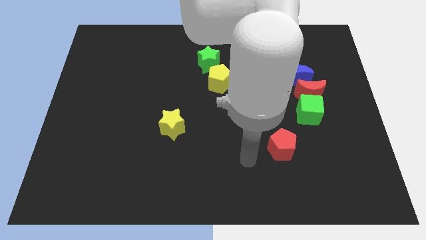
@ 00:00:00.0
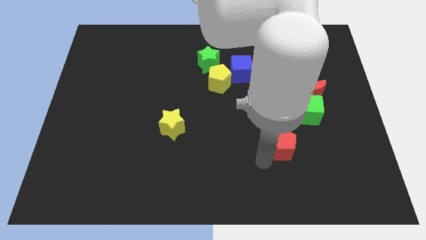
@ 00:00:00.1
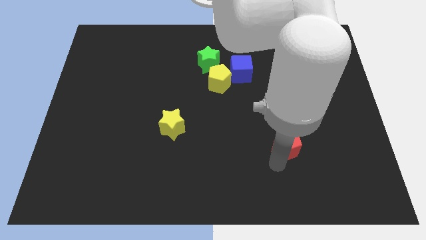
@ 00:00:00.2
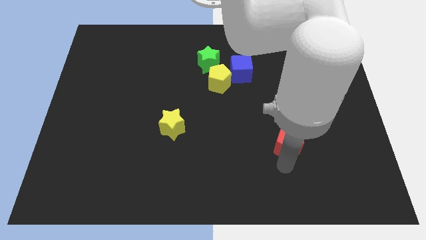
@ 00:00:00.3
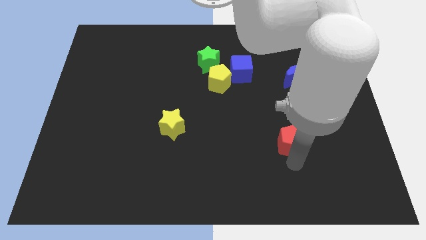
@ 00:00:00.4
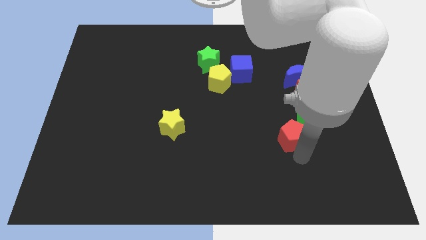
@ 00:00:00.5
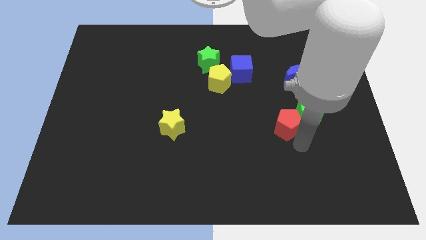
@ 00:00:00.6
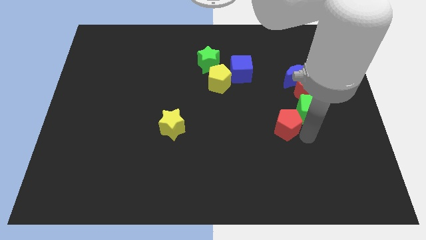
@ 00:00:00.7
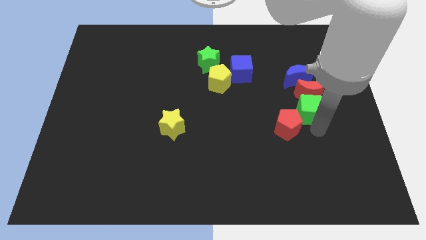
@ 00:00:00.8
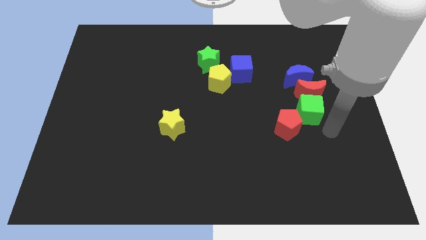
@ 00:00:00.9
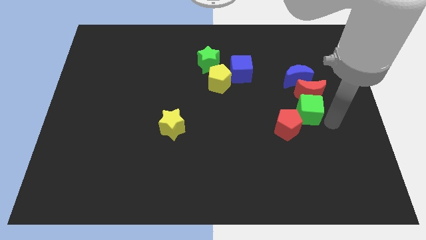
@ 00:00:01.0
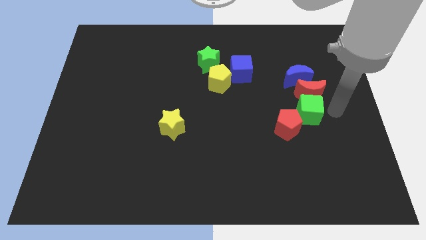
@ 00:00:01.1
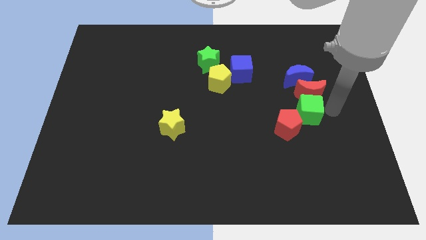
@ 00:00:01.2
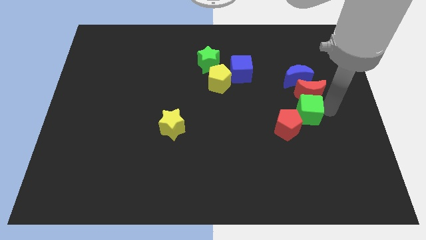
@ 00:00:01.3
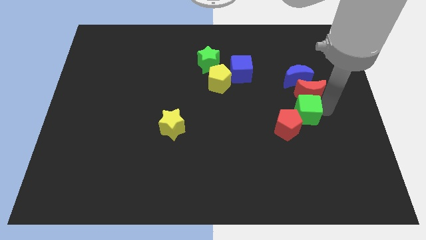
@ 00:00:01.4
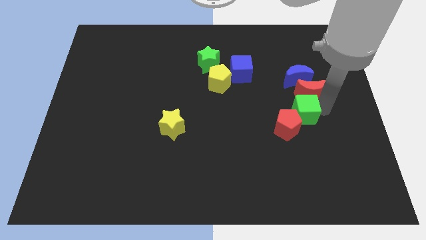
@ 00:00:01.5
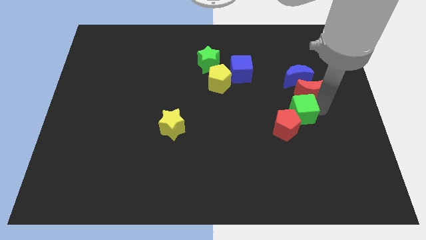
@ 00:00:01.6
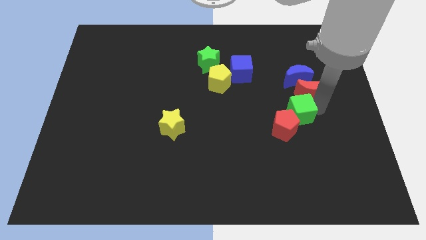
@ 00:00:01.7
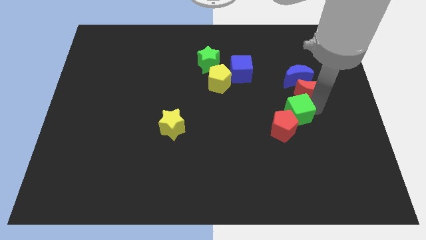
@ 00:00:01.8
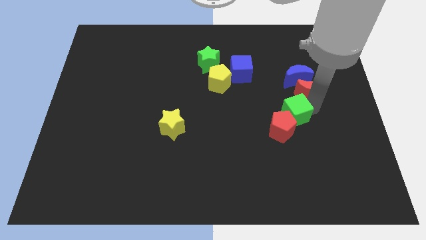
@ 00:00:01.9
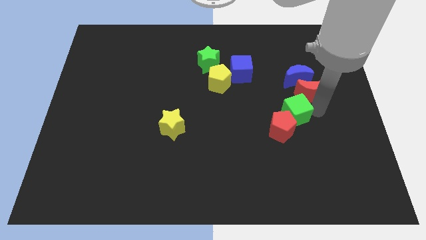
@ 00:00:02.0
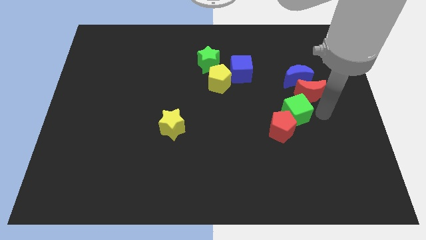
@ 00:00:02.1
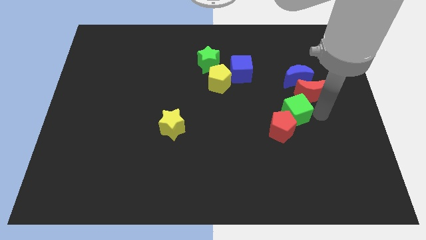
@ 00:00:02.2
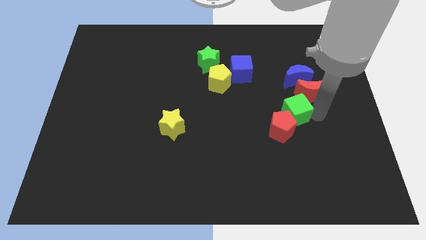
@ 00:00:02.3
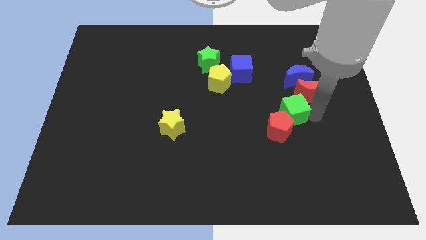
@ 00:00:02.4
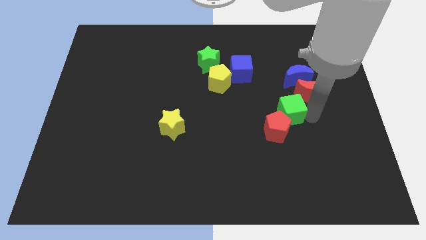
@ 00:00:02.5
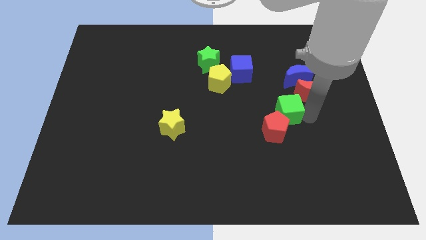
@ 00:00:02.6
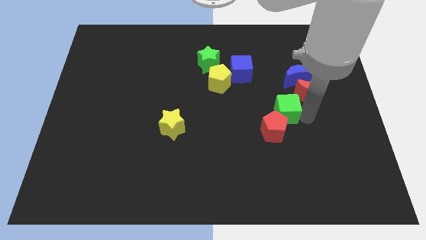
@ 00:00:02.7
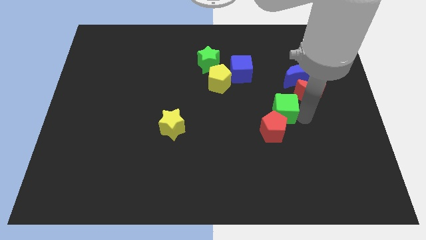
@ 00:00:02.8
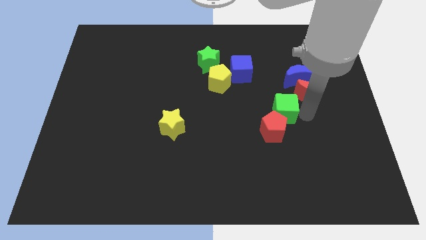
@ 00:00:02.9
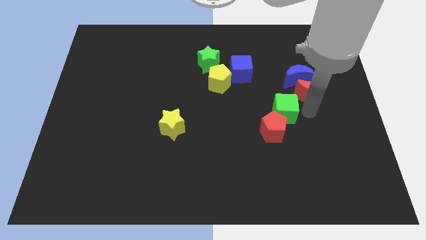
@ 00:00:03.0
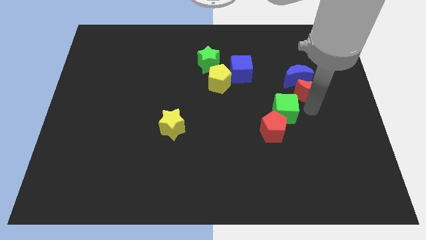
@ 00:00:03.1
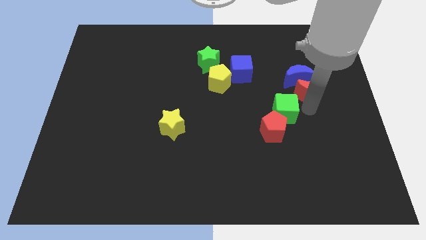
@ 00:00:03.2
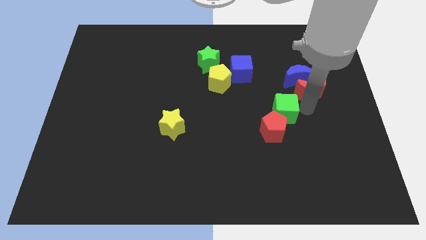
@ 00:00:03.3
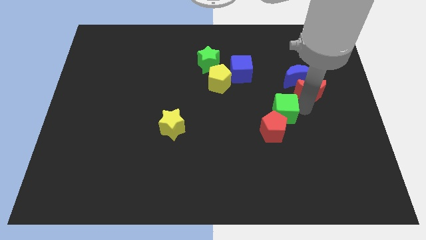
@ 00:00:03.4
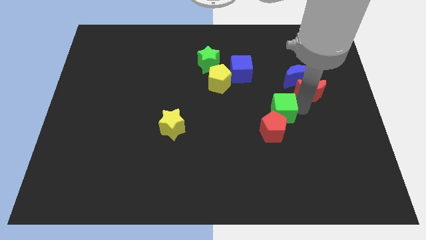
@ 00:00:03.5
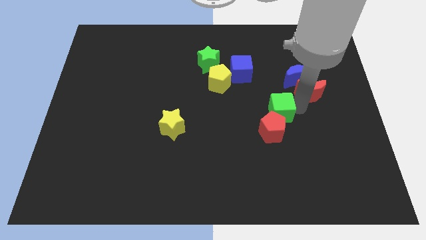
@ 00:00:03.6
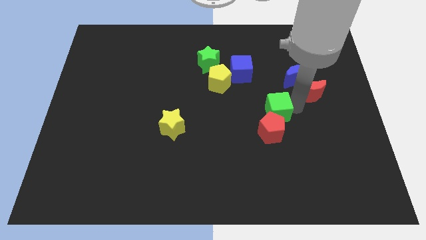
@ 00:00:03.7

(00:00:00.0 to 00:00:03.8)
move the green cube left a little bit

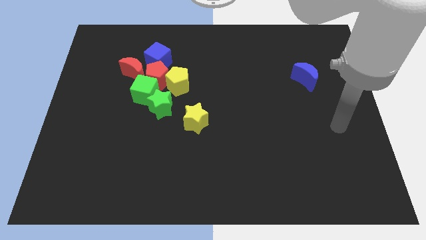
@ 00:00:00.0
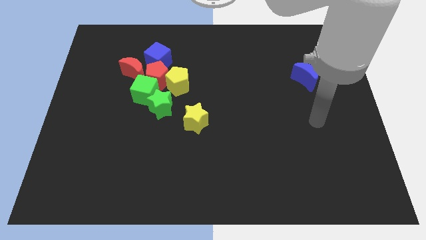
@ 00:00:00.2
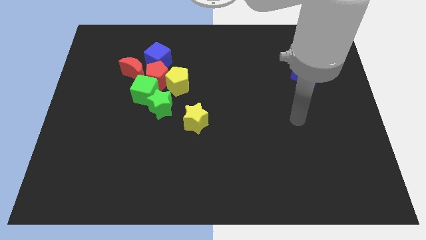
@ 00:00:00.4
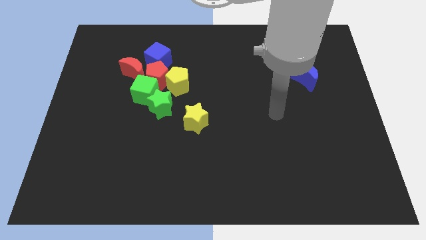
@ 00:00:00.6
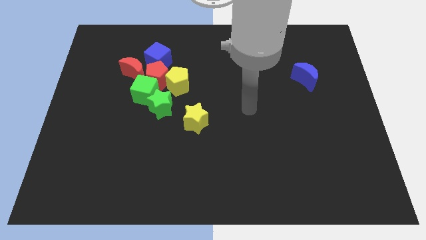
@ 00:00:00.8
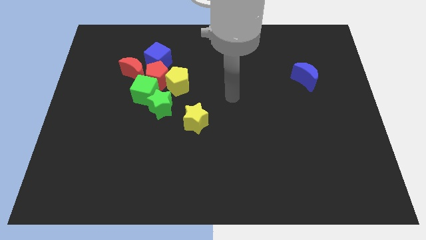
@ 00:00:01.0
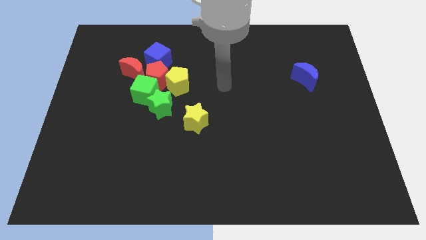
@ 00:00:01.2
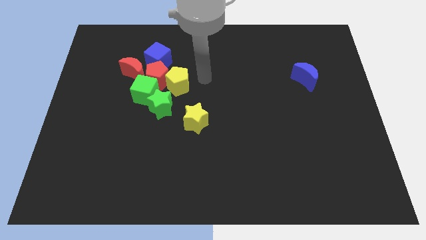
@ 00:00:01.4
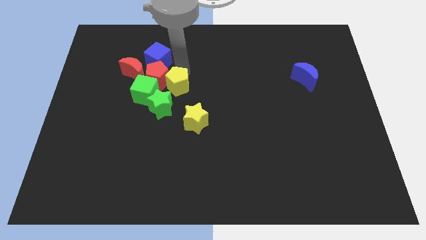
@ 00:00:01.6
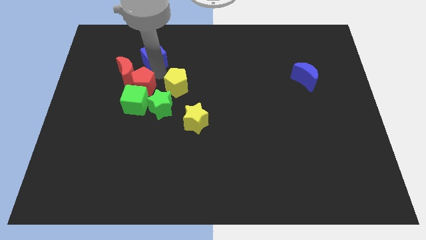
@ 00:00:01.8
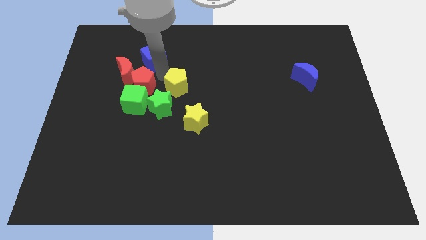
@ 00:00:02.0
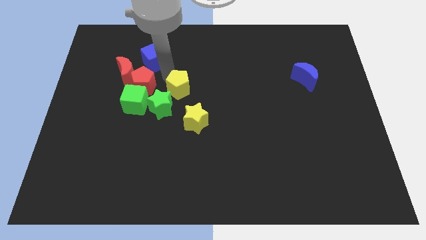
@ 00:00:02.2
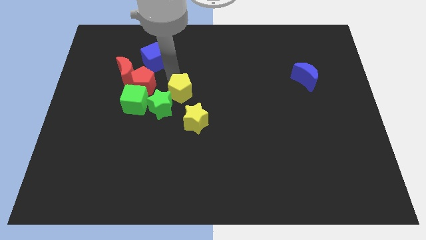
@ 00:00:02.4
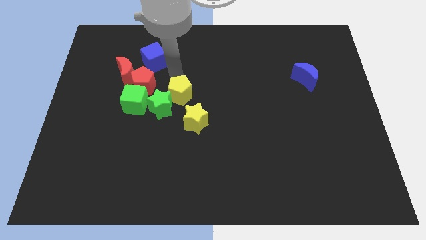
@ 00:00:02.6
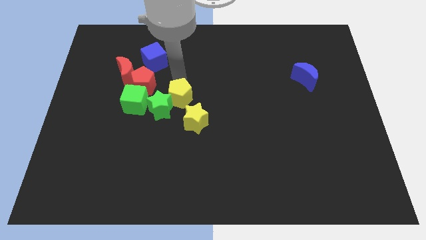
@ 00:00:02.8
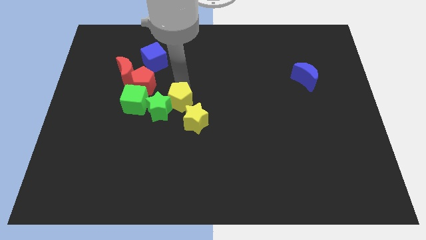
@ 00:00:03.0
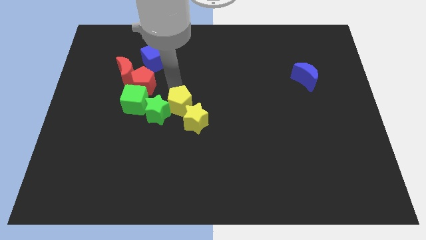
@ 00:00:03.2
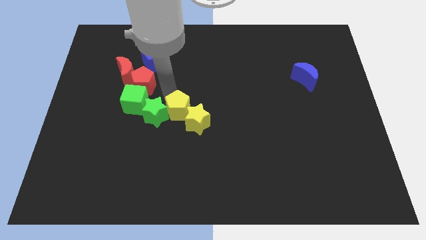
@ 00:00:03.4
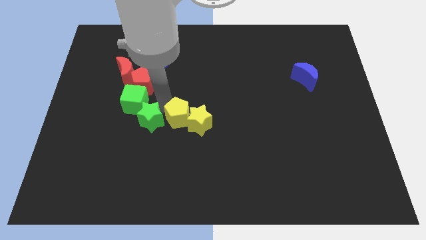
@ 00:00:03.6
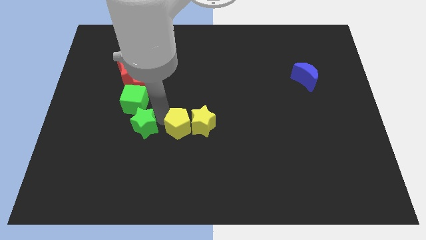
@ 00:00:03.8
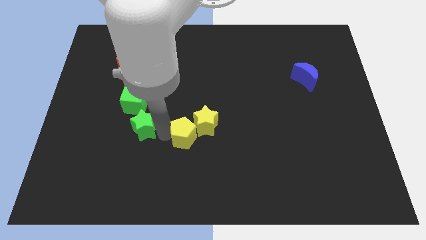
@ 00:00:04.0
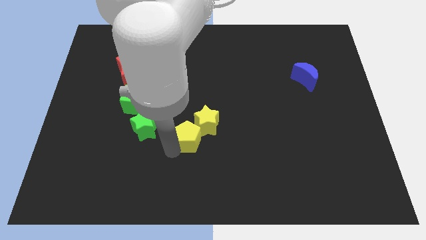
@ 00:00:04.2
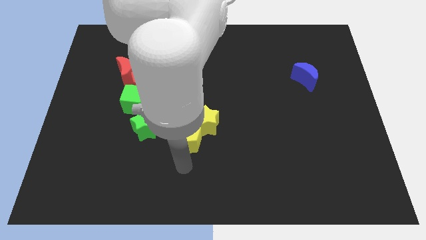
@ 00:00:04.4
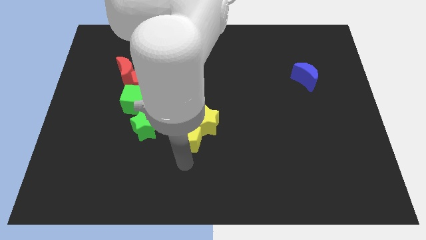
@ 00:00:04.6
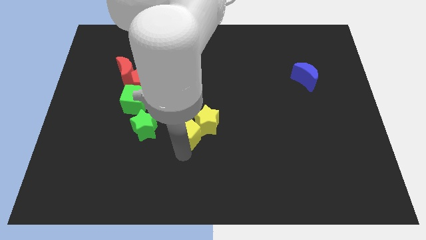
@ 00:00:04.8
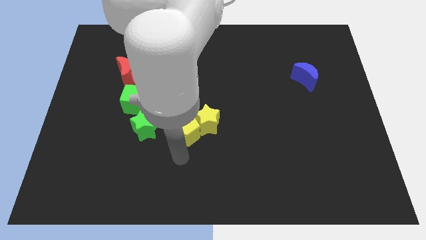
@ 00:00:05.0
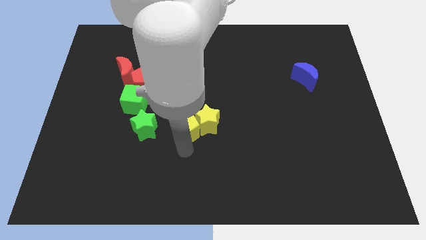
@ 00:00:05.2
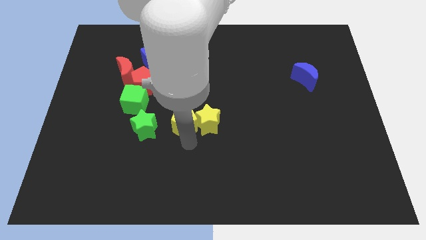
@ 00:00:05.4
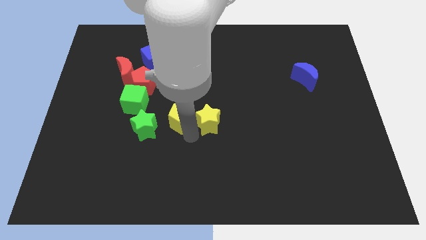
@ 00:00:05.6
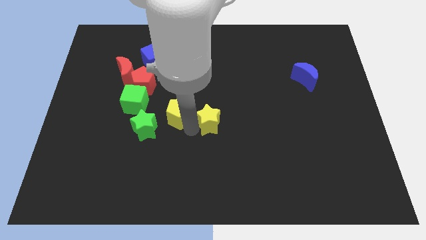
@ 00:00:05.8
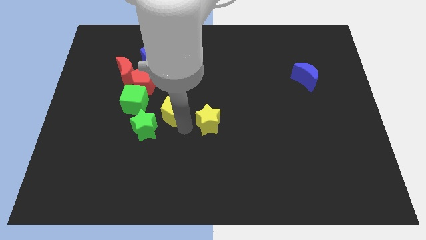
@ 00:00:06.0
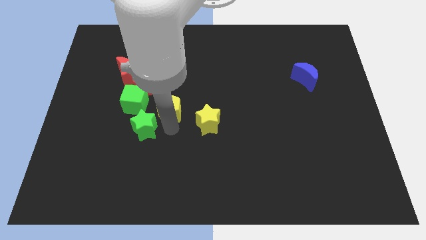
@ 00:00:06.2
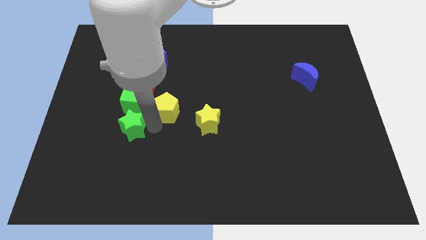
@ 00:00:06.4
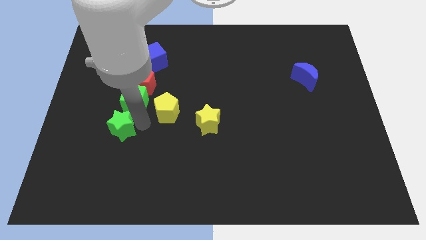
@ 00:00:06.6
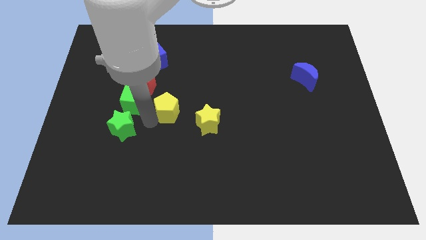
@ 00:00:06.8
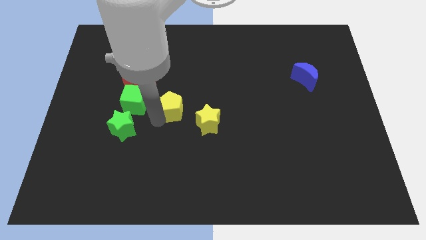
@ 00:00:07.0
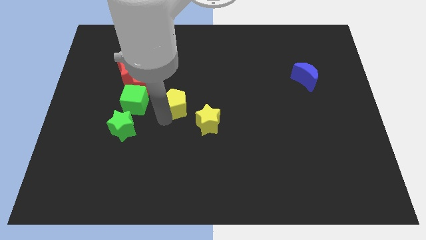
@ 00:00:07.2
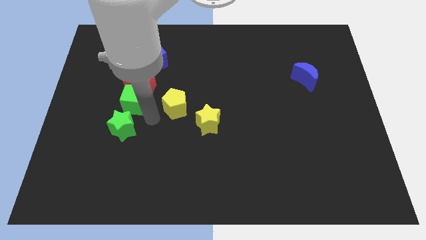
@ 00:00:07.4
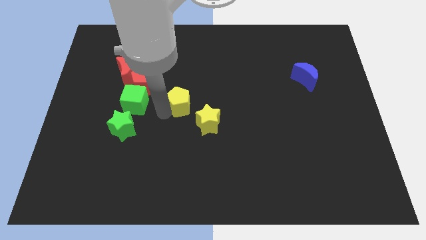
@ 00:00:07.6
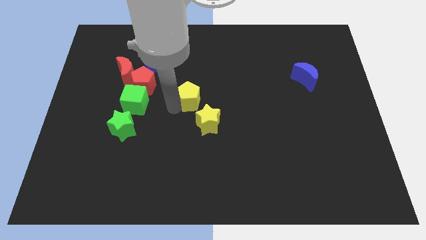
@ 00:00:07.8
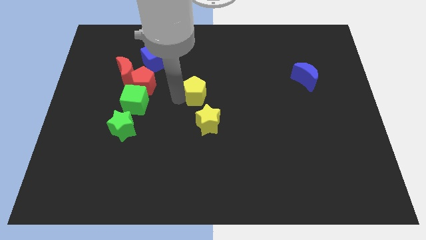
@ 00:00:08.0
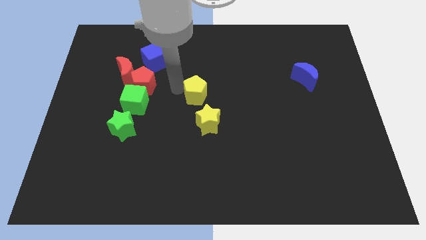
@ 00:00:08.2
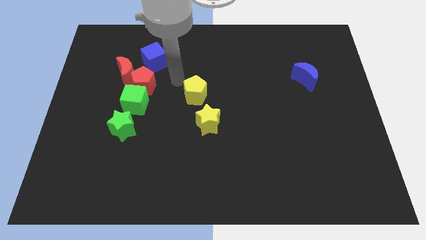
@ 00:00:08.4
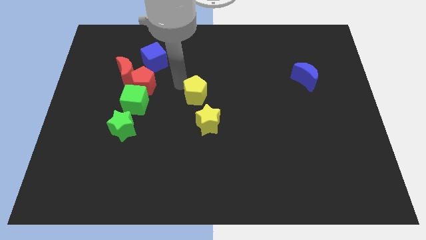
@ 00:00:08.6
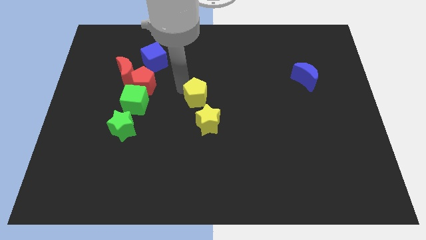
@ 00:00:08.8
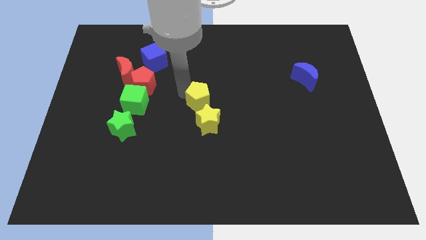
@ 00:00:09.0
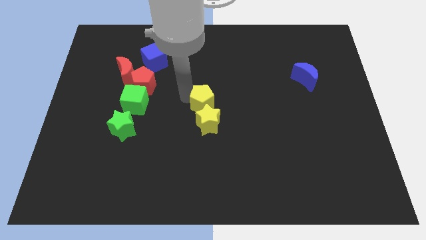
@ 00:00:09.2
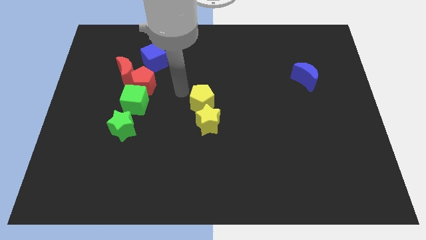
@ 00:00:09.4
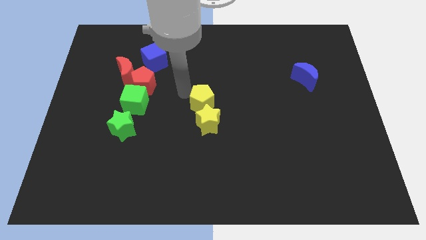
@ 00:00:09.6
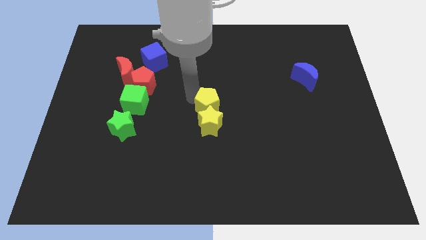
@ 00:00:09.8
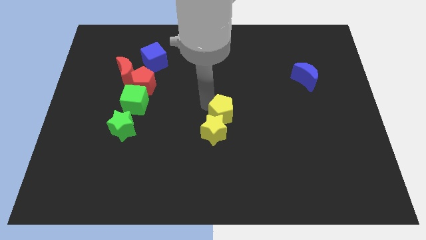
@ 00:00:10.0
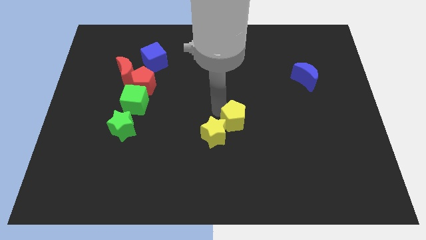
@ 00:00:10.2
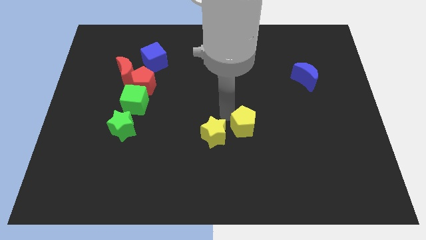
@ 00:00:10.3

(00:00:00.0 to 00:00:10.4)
slide the yellow pentagon downwards and then to the right
